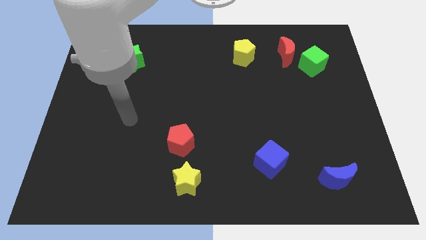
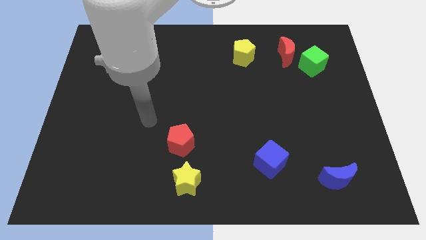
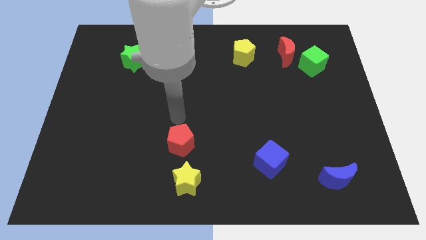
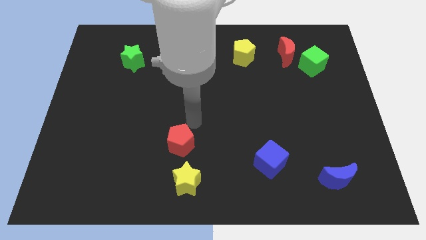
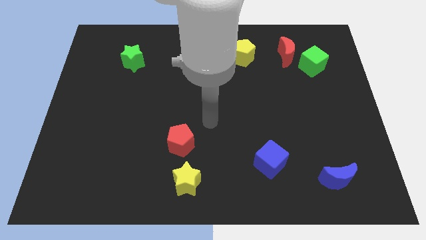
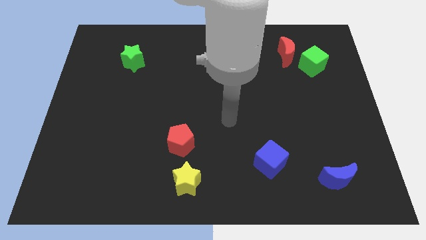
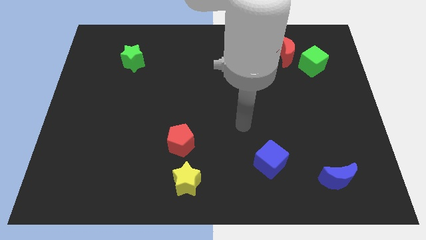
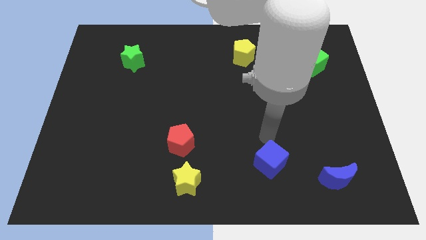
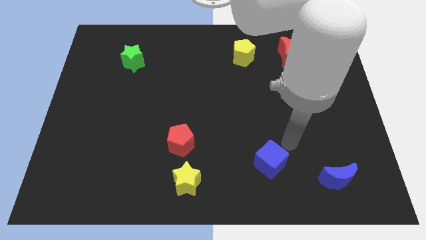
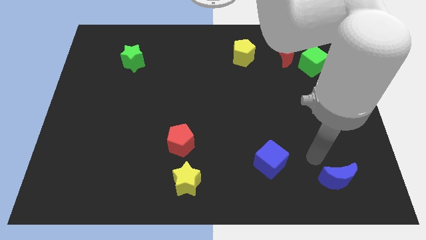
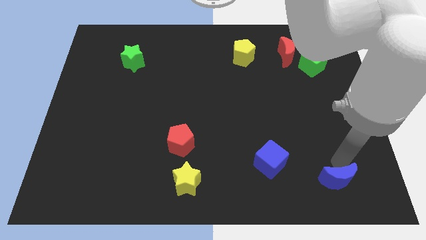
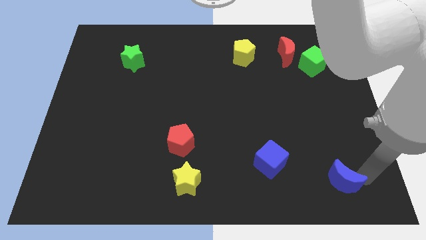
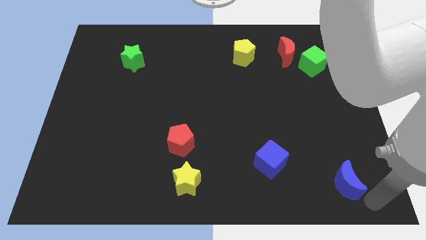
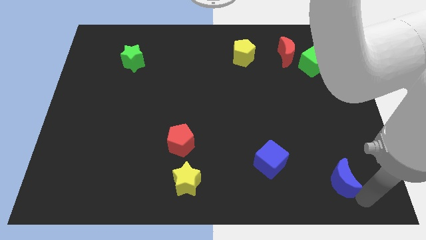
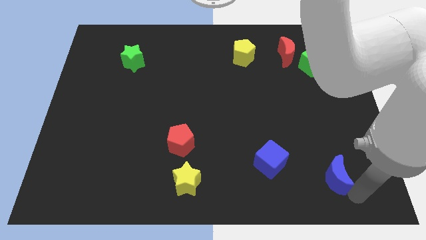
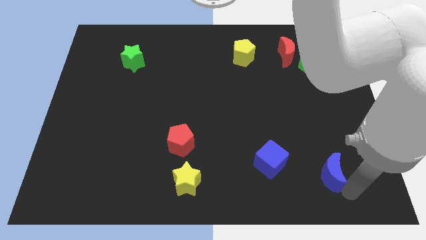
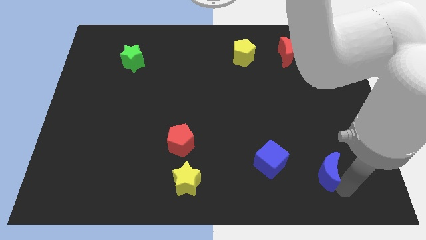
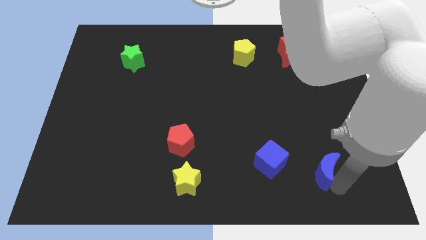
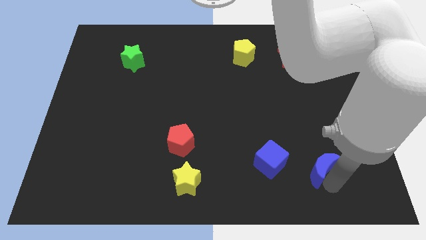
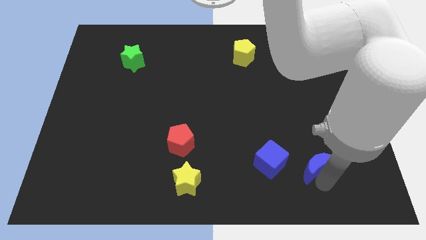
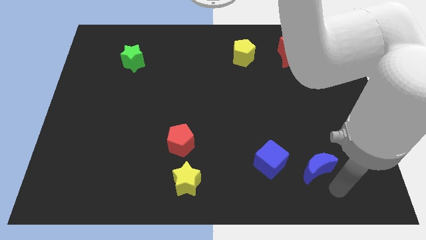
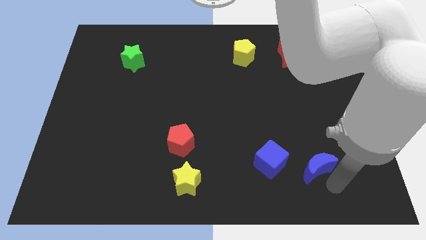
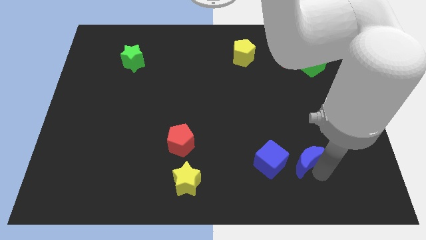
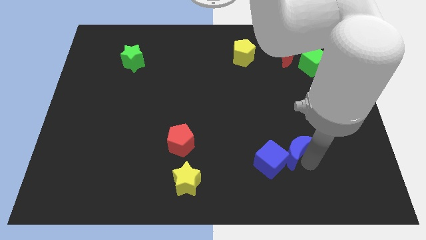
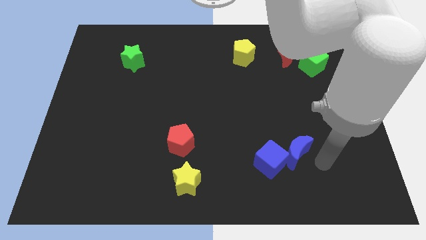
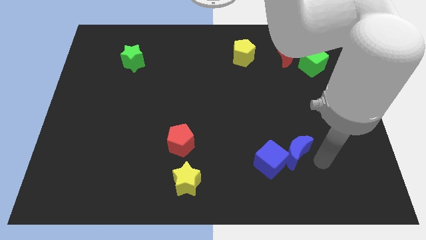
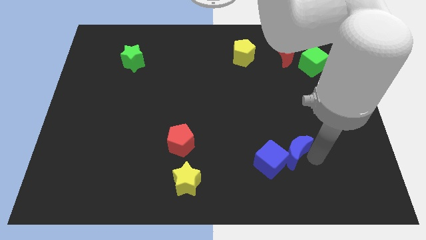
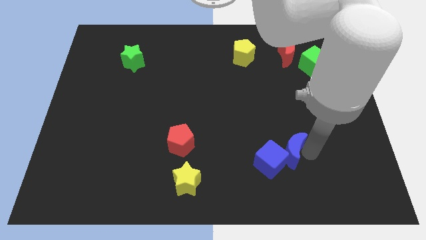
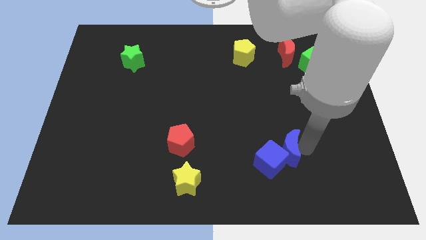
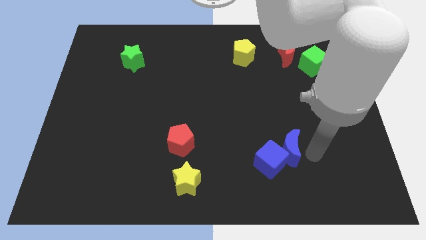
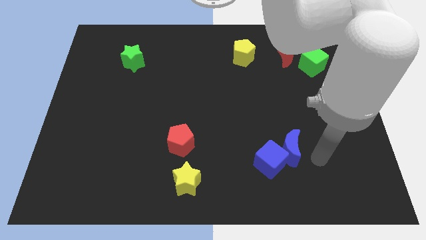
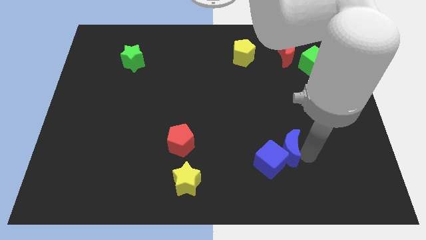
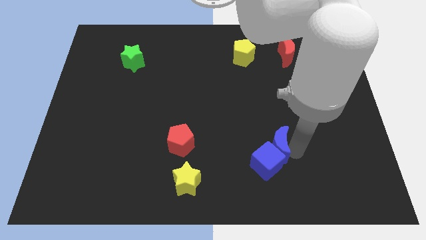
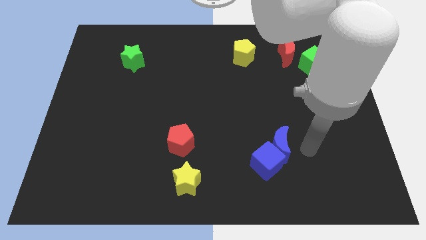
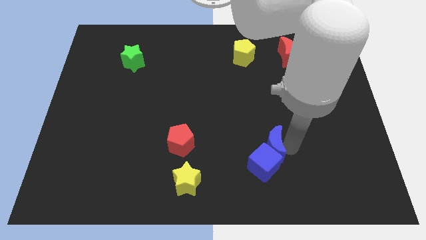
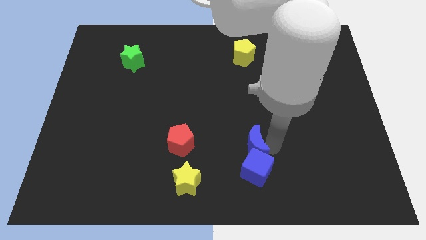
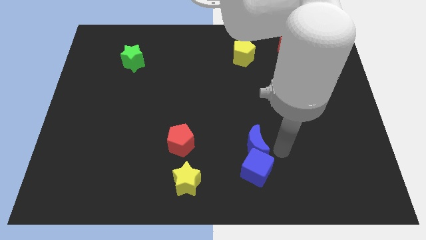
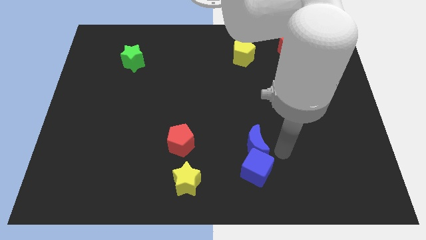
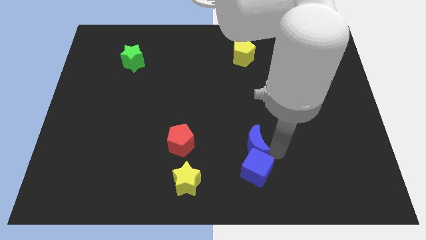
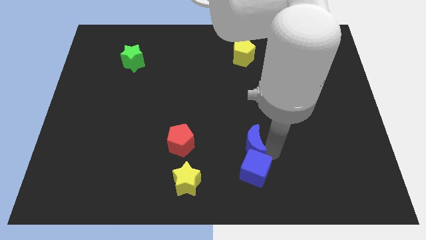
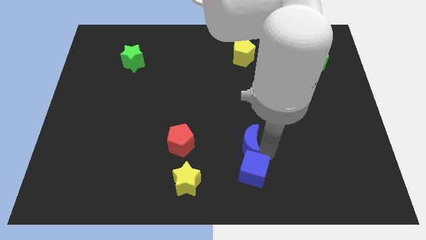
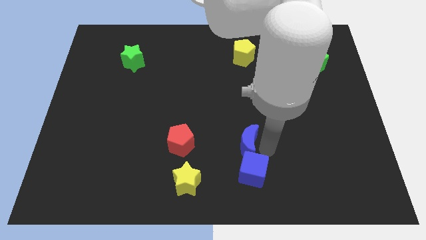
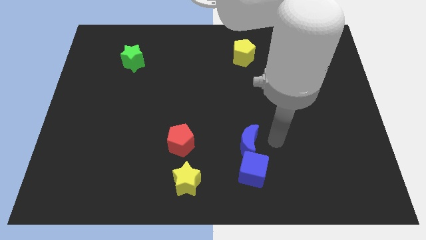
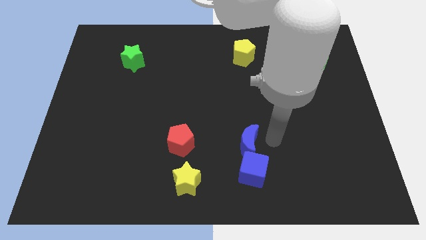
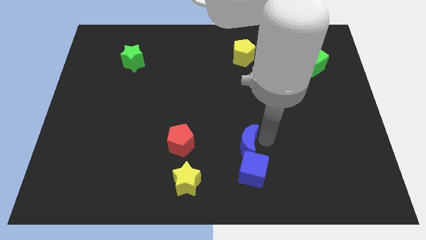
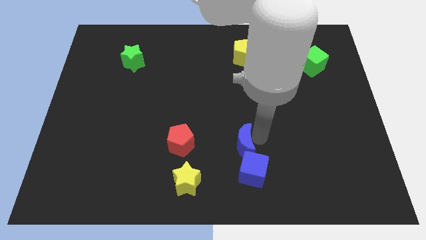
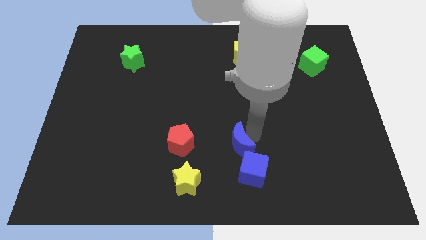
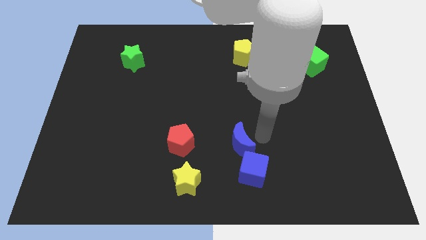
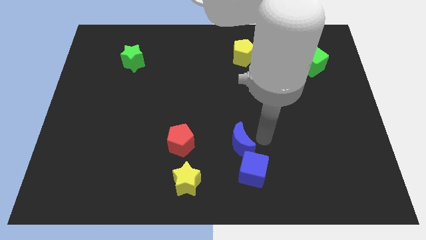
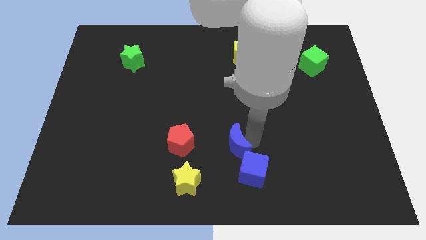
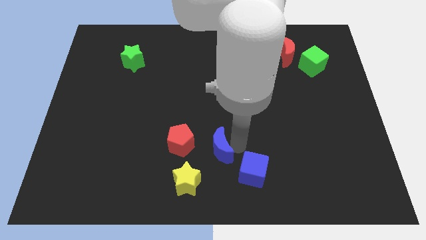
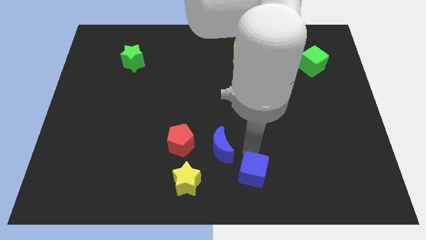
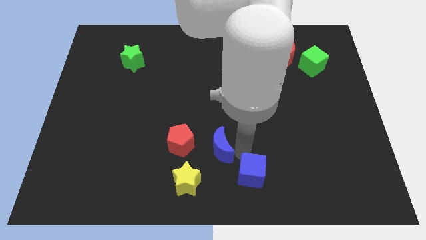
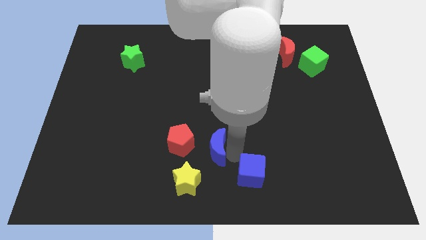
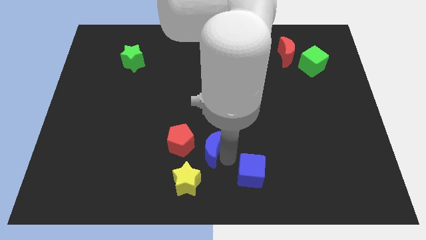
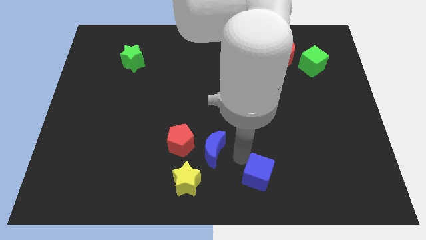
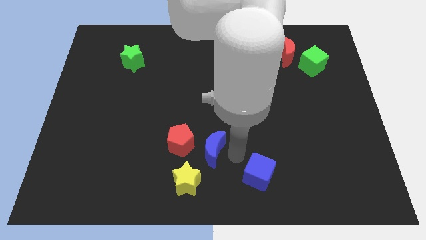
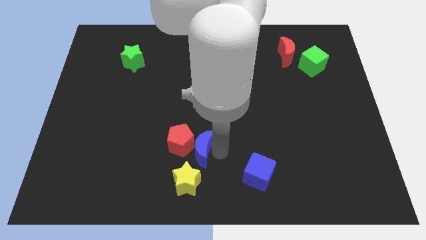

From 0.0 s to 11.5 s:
move the blue moon next to the red pentagon

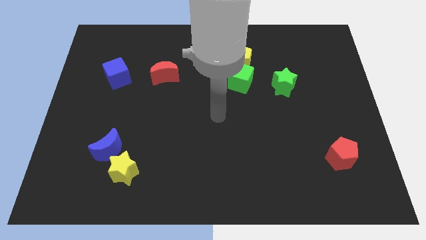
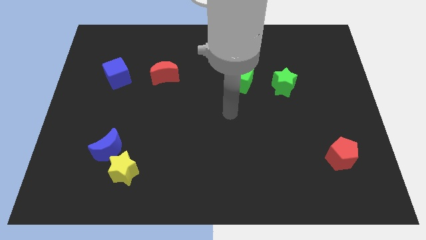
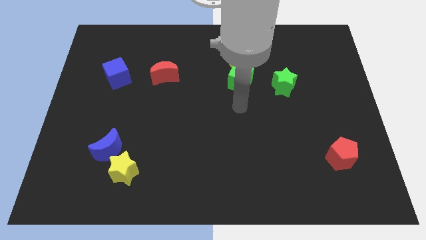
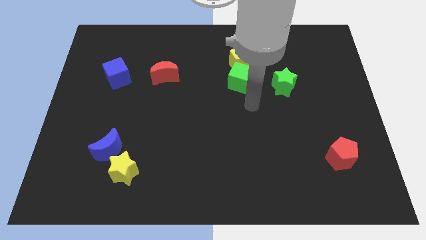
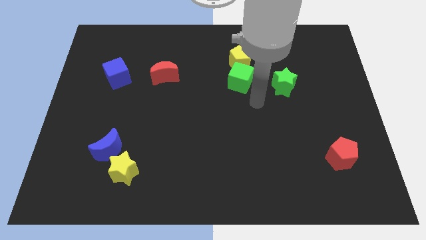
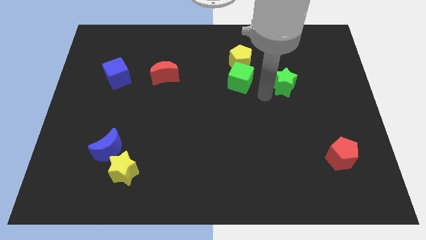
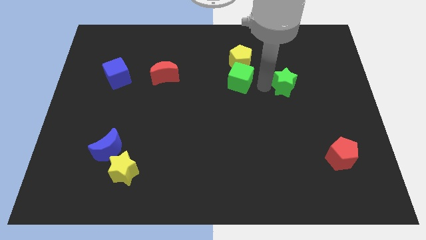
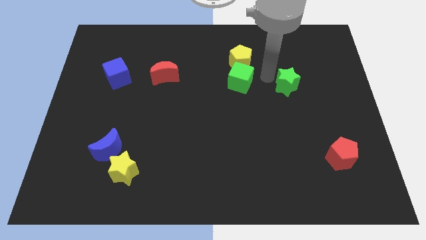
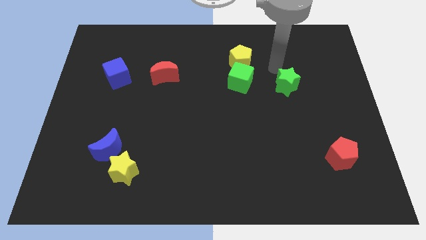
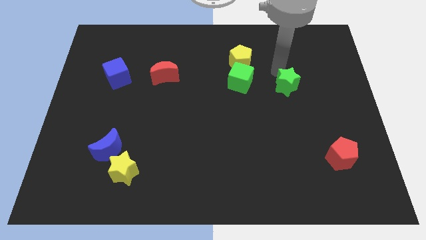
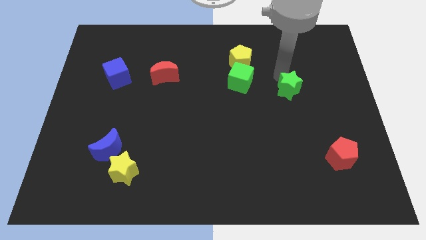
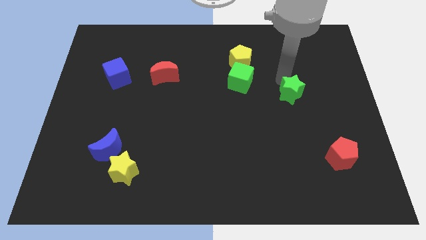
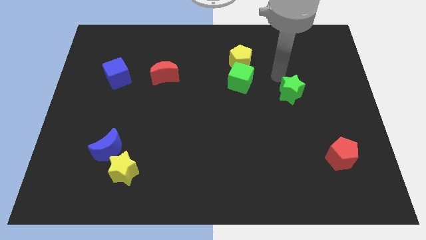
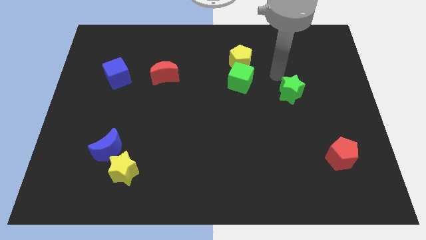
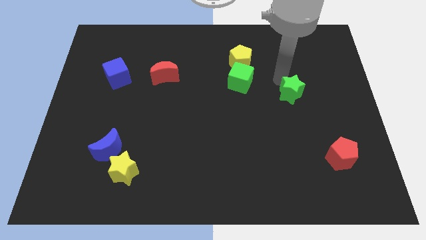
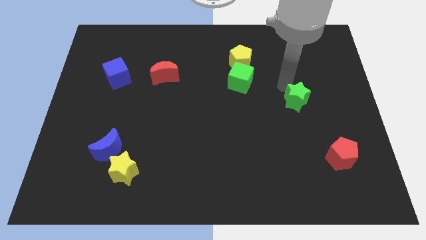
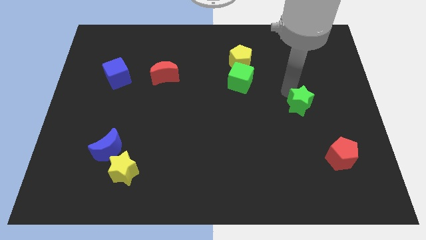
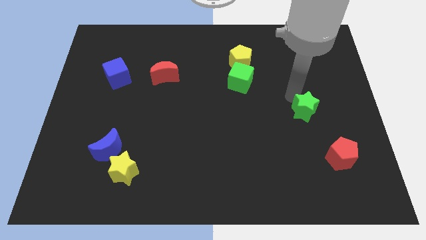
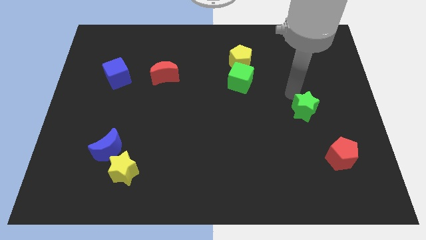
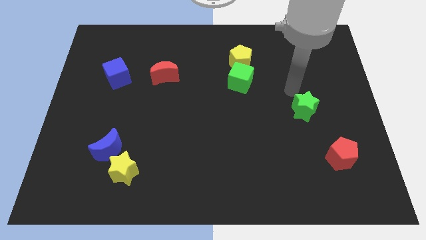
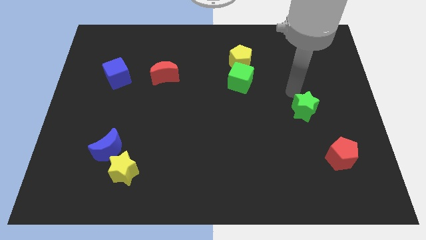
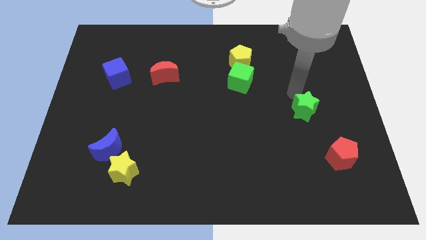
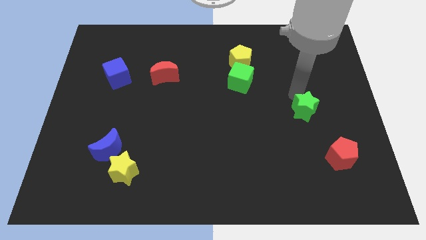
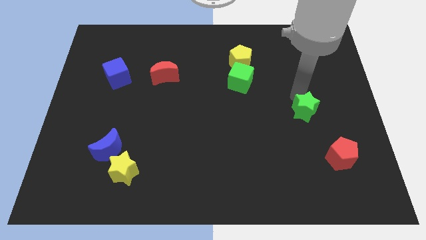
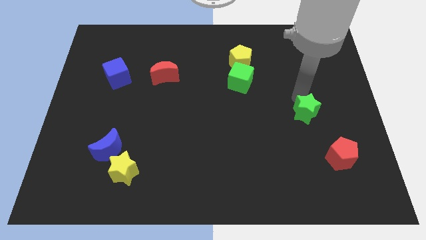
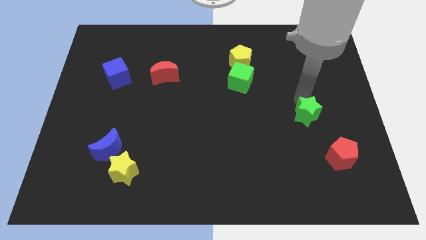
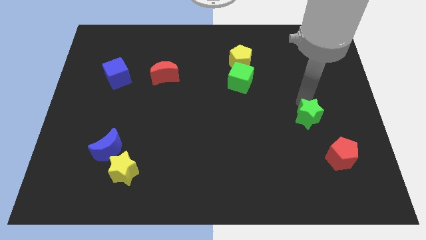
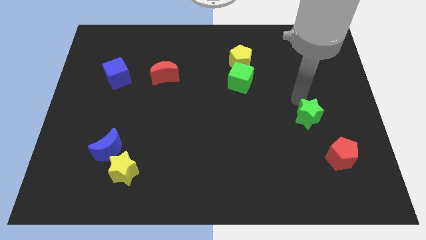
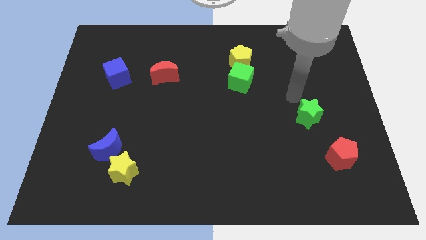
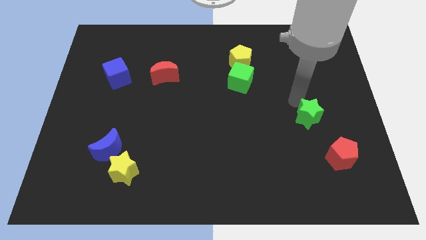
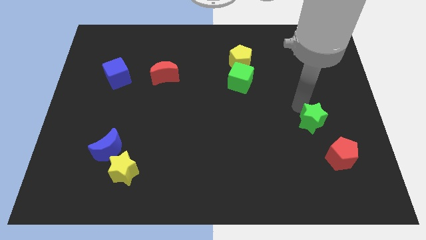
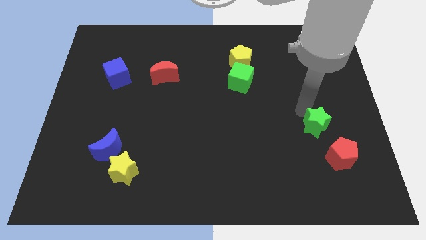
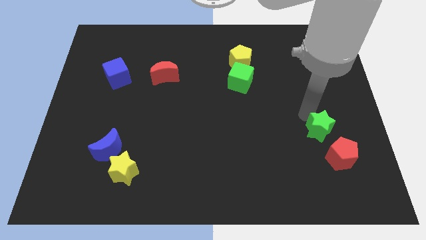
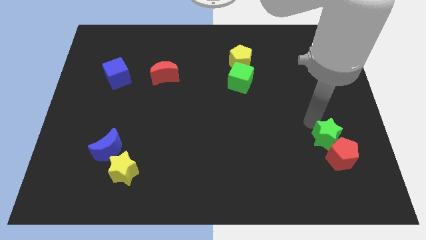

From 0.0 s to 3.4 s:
move the green star towards the red pentagon
